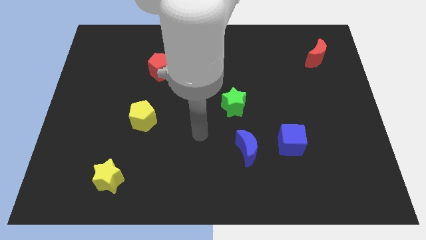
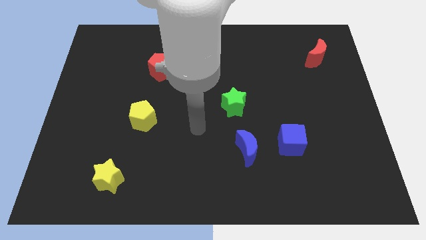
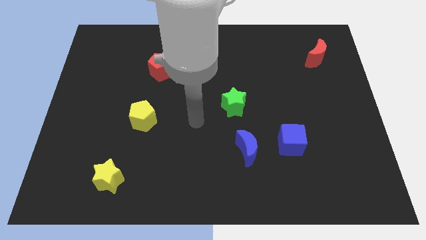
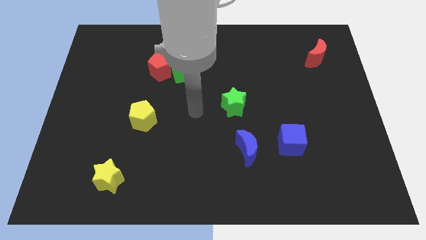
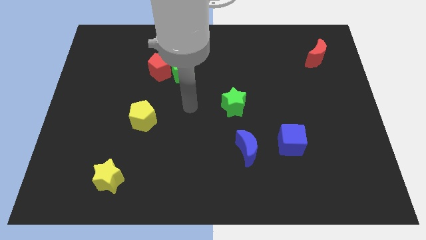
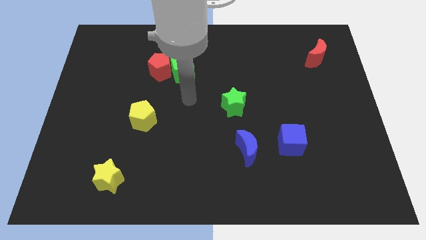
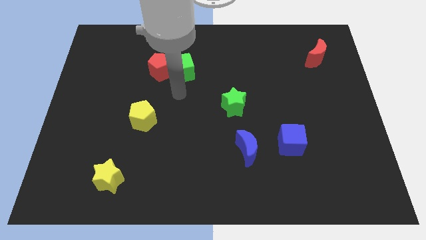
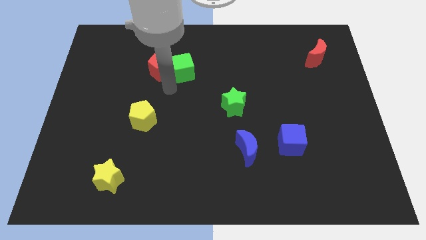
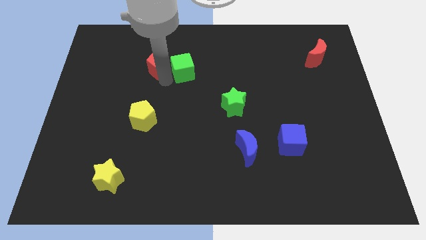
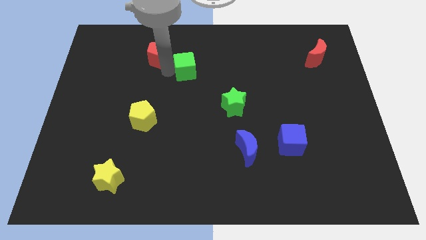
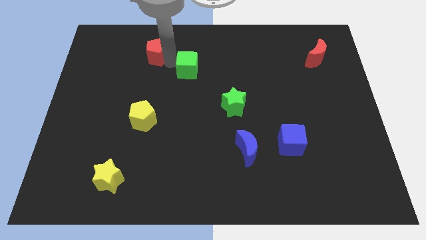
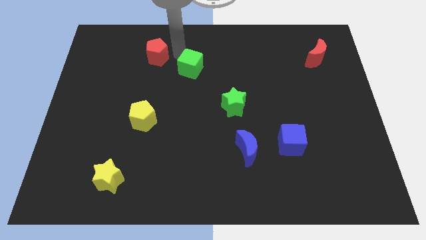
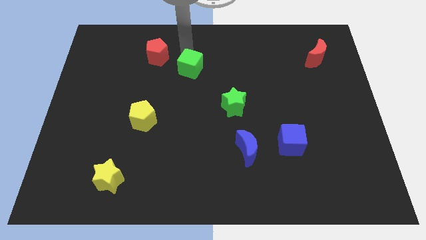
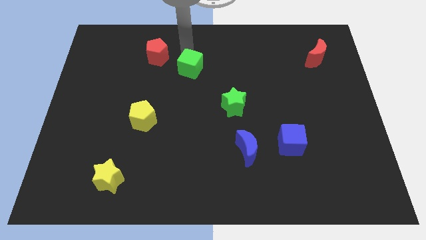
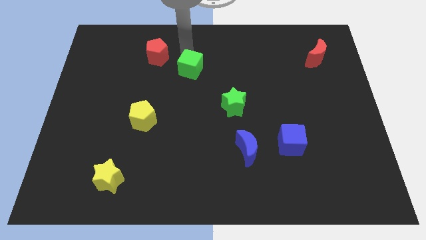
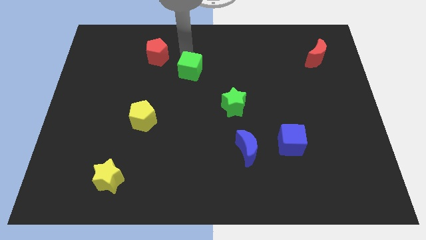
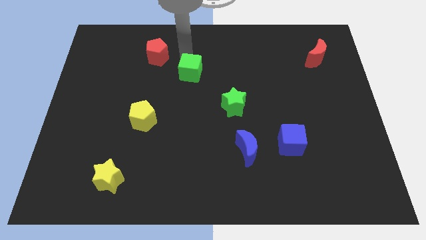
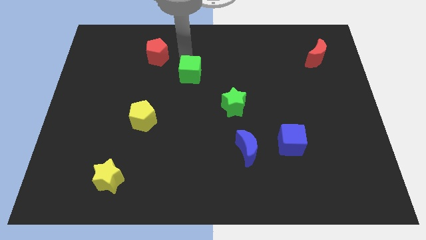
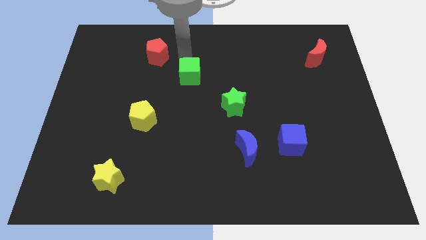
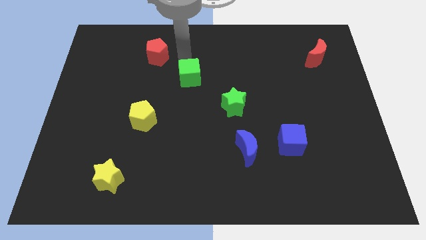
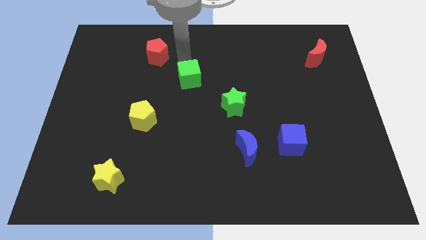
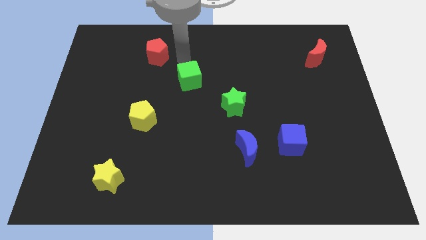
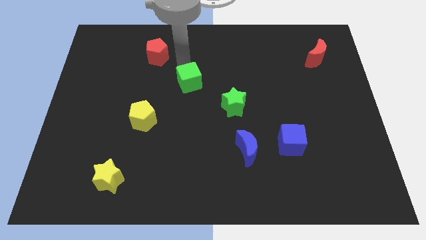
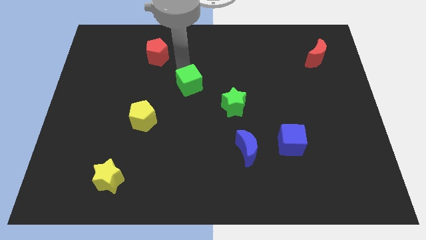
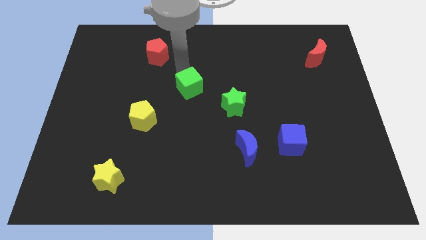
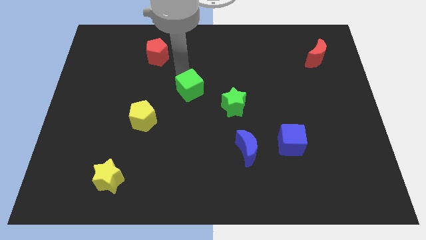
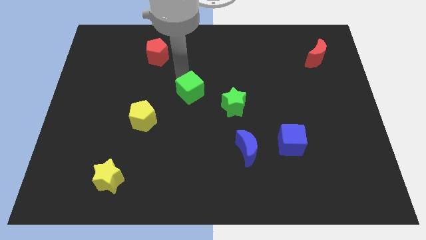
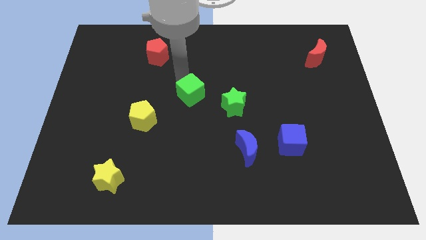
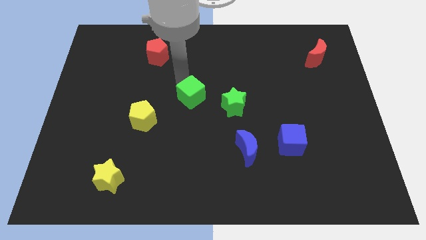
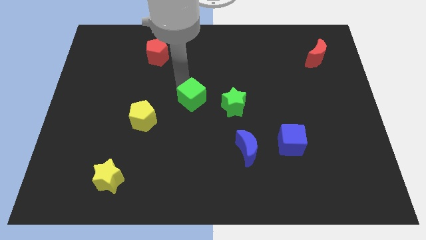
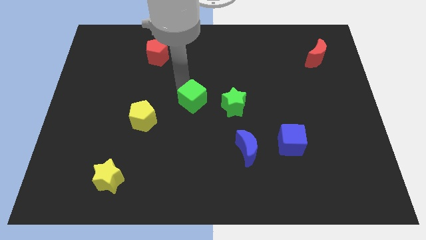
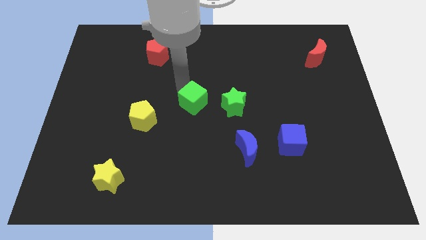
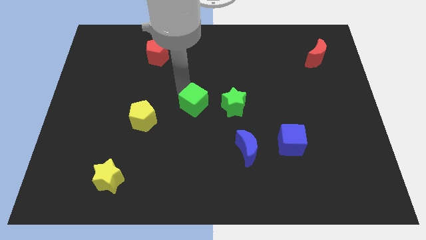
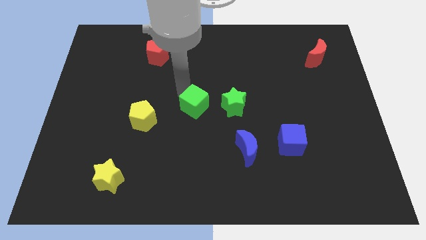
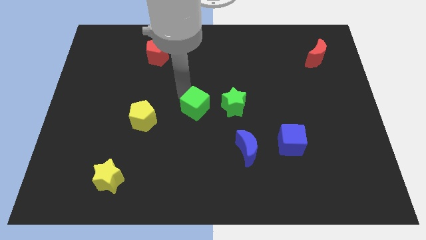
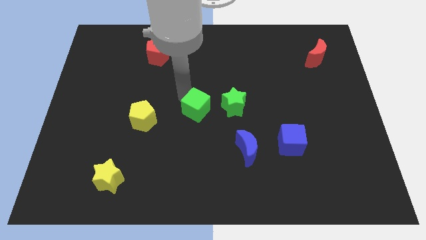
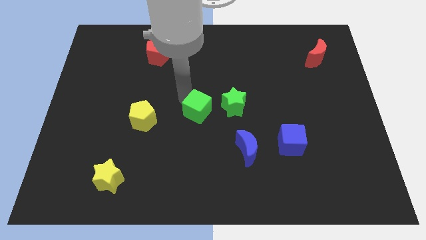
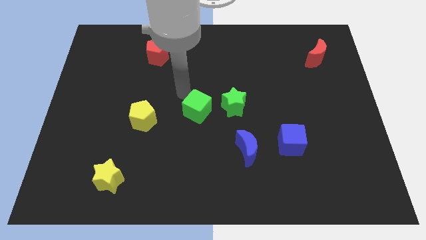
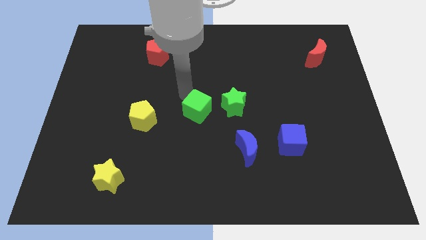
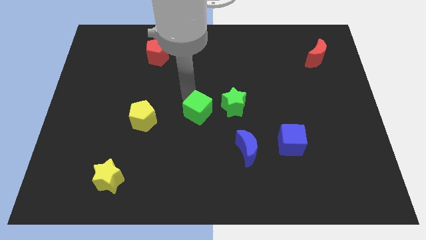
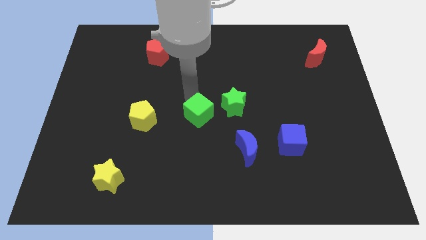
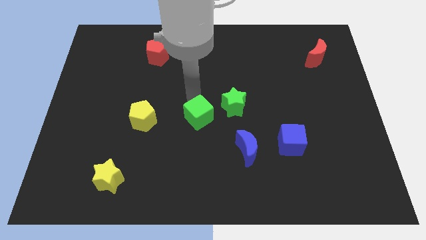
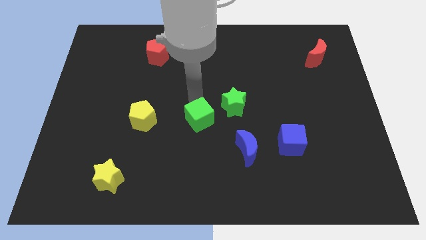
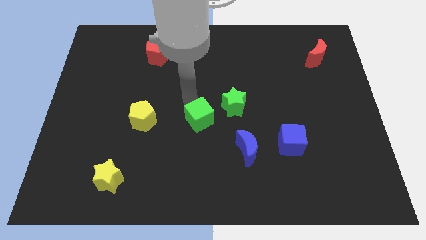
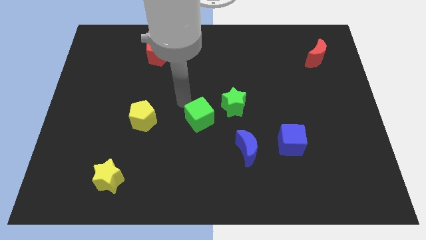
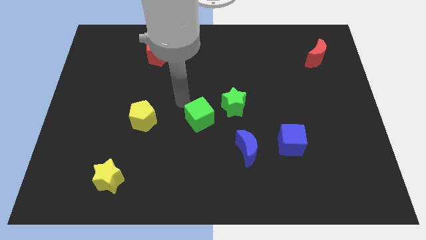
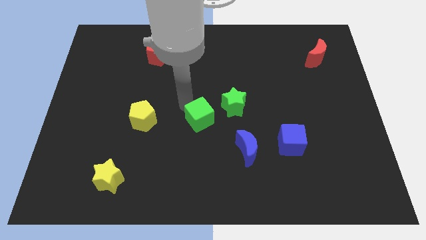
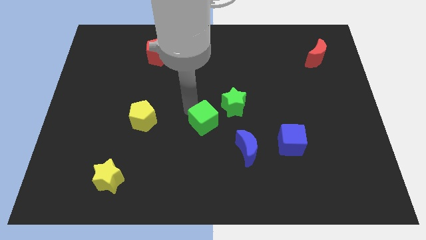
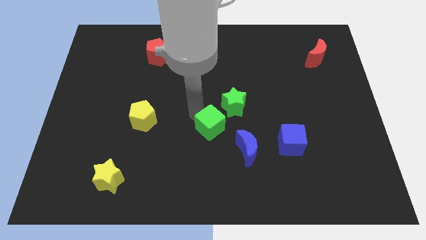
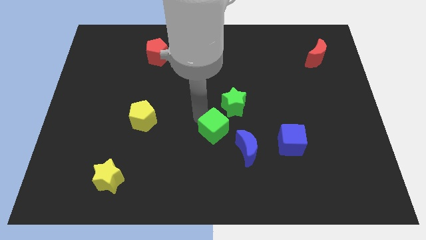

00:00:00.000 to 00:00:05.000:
move the green cube below the green star

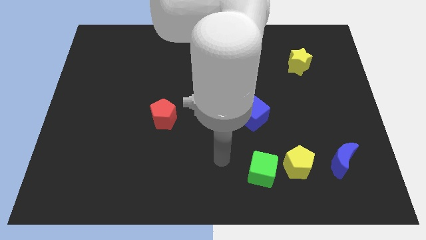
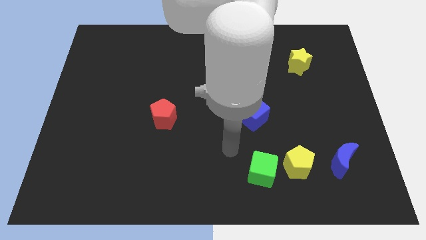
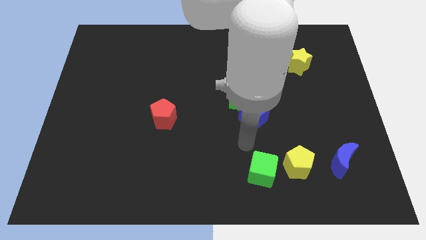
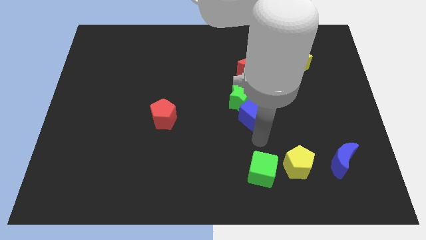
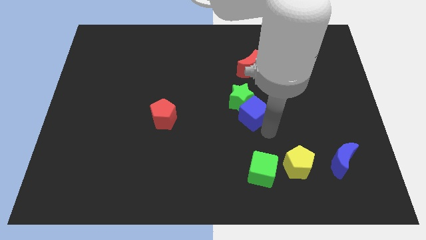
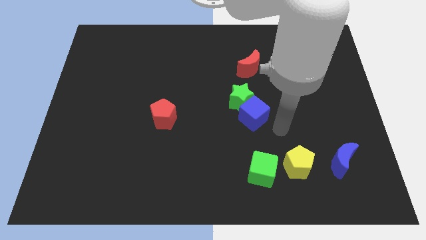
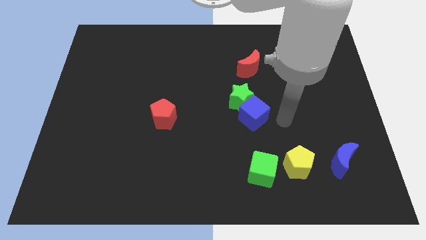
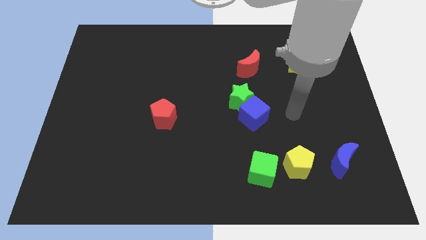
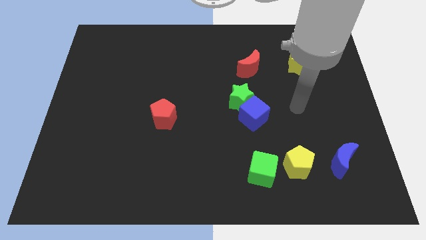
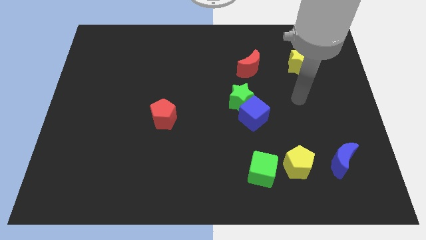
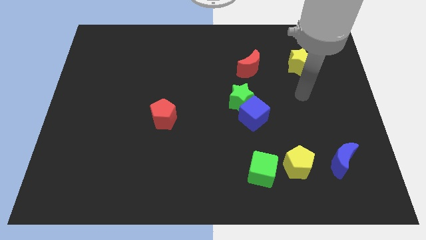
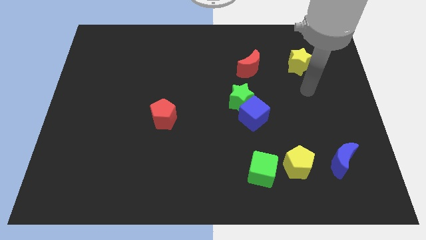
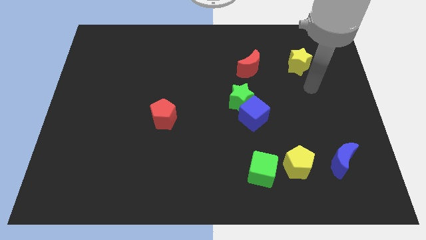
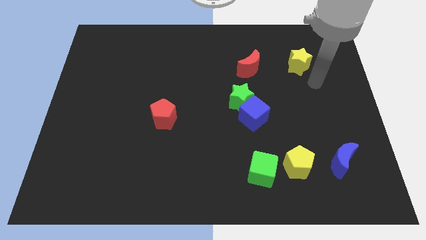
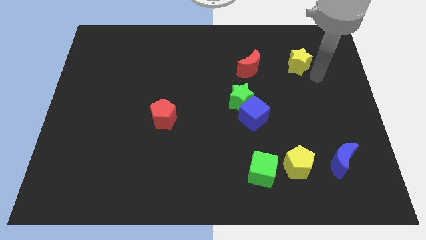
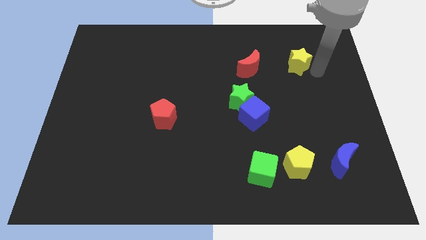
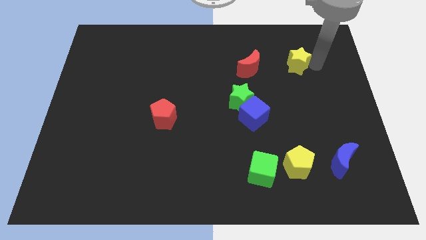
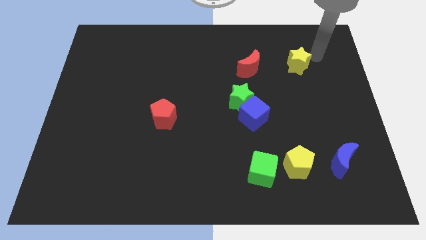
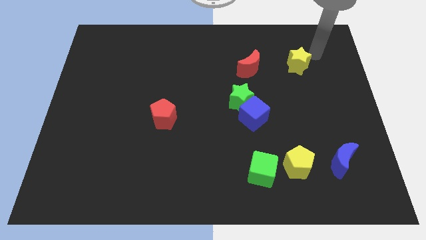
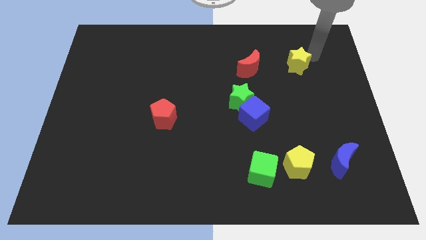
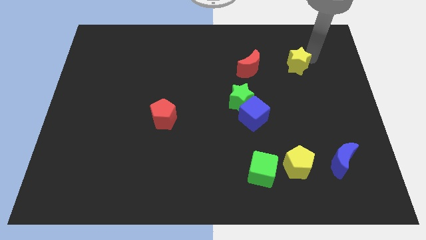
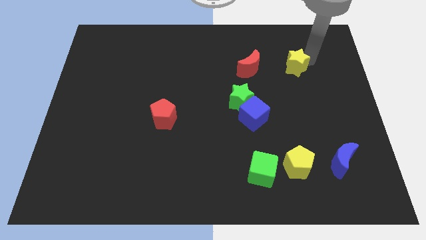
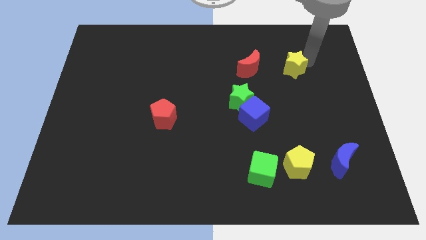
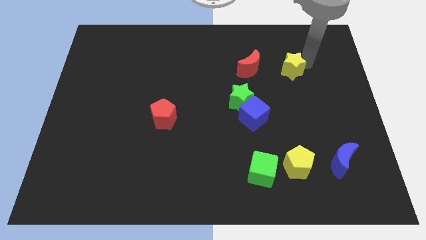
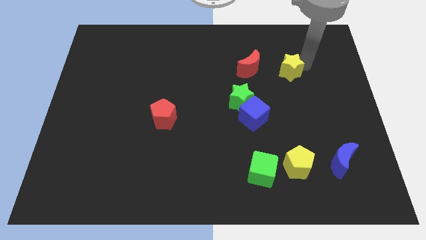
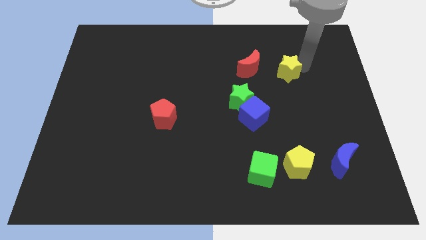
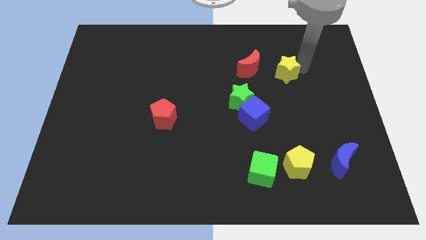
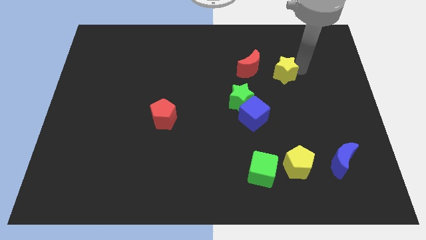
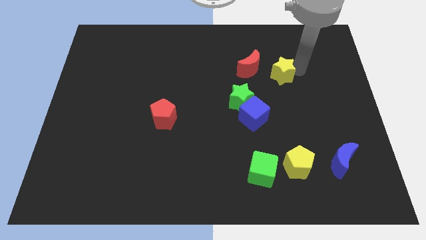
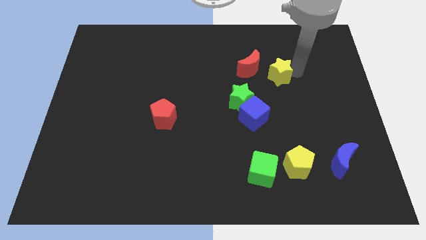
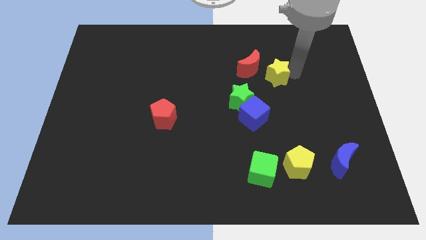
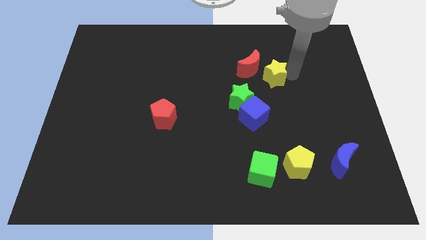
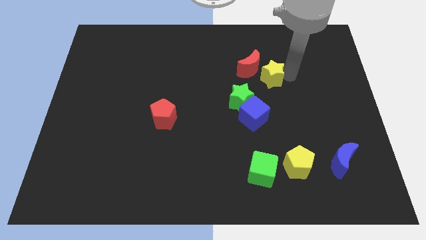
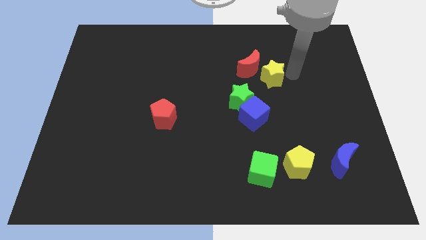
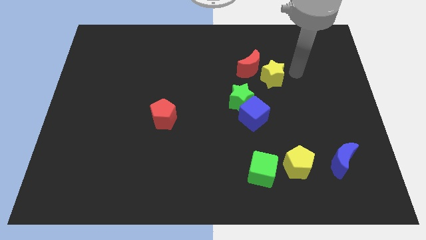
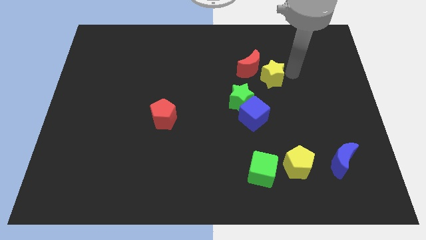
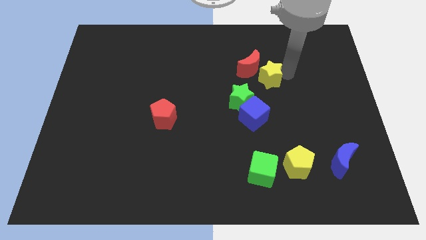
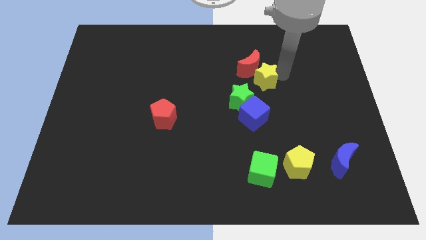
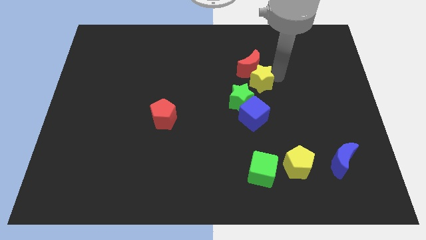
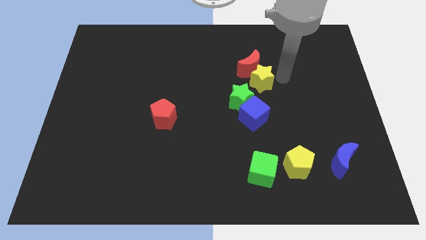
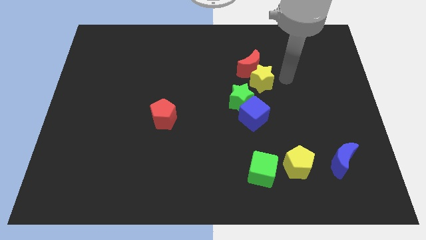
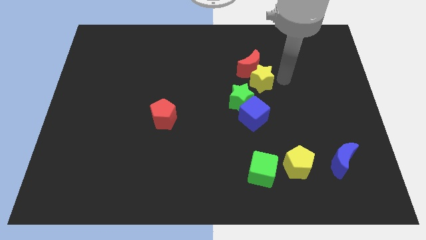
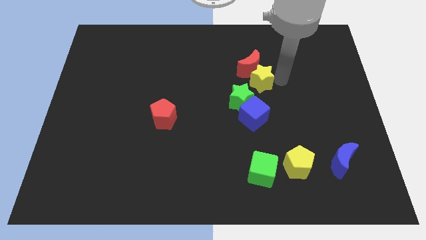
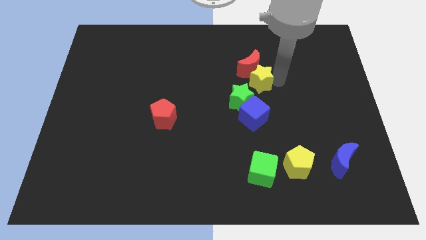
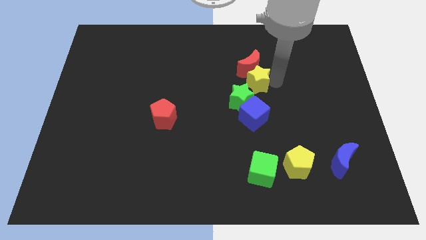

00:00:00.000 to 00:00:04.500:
push the yellow star to the bottom left of the red moon
